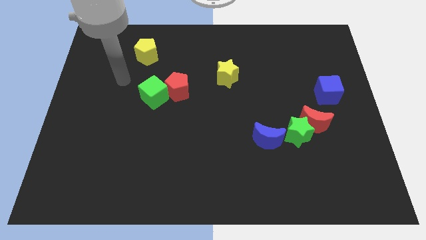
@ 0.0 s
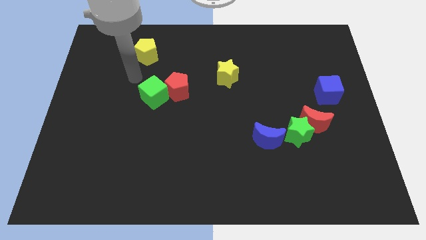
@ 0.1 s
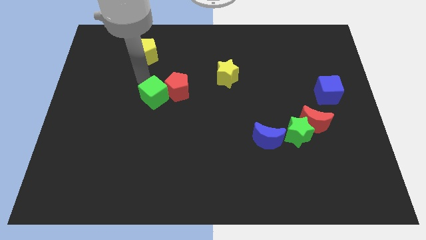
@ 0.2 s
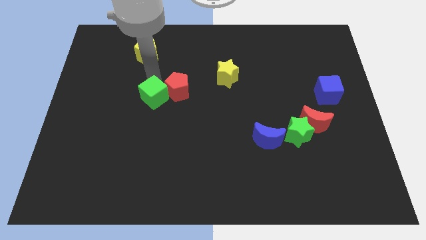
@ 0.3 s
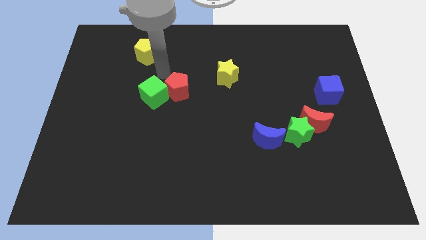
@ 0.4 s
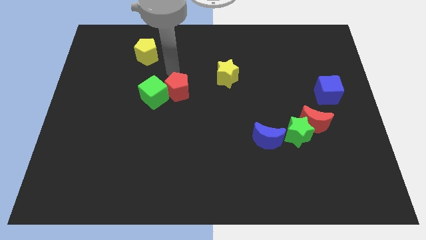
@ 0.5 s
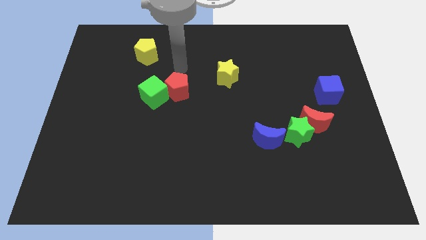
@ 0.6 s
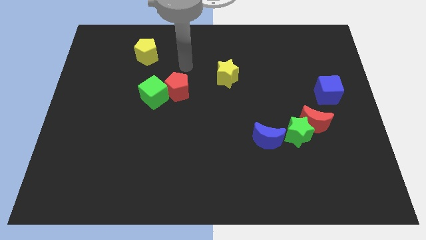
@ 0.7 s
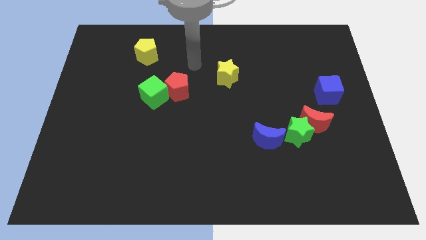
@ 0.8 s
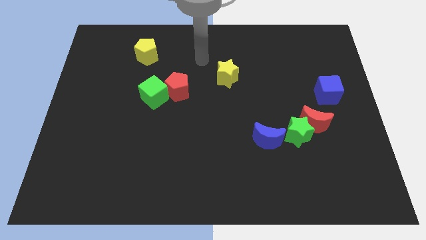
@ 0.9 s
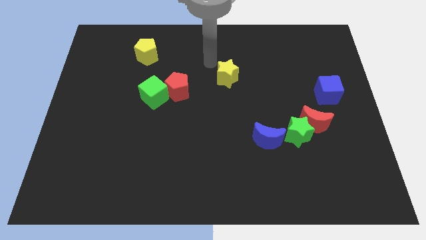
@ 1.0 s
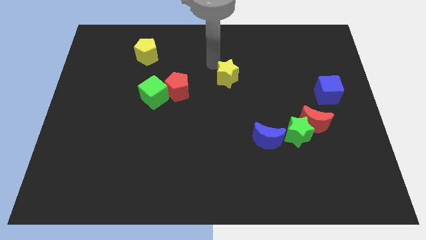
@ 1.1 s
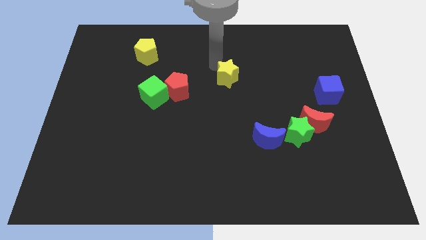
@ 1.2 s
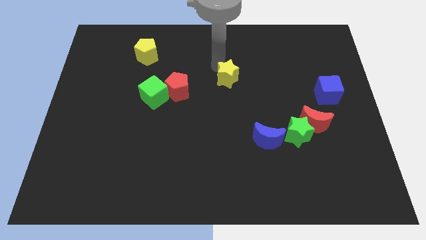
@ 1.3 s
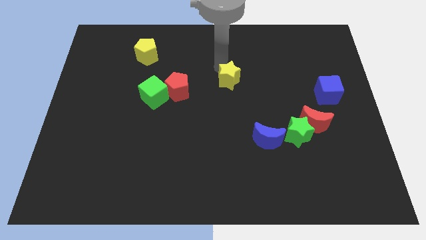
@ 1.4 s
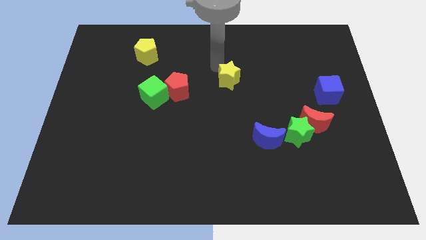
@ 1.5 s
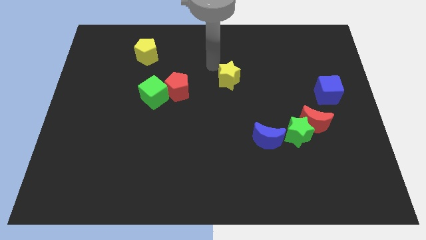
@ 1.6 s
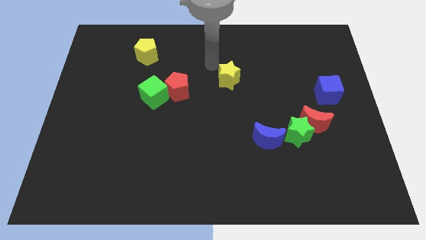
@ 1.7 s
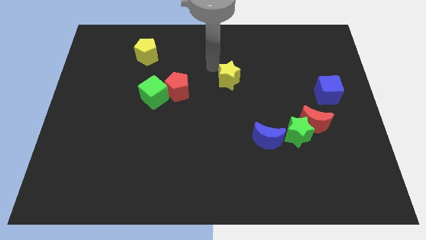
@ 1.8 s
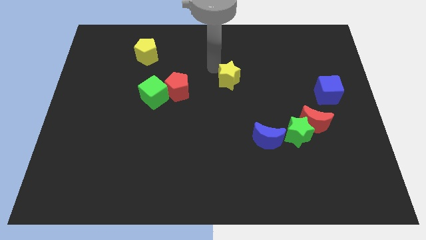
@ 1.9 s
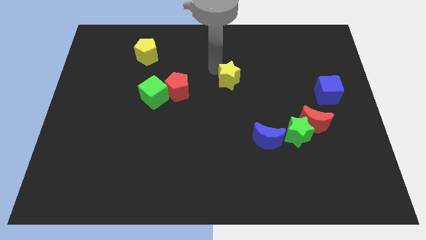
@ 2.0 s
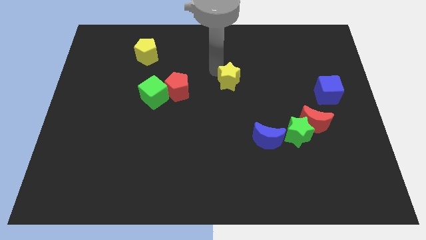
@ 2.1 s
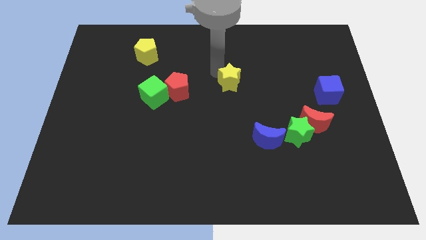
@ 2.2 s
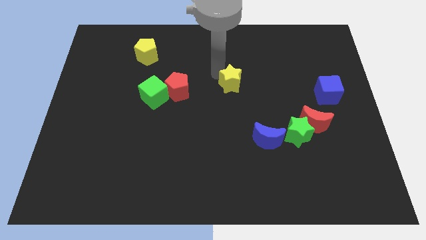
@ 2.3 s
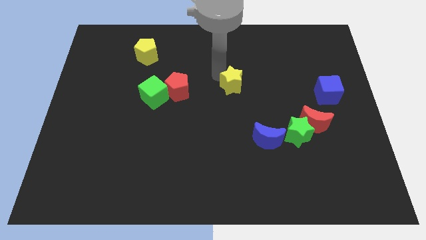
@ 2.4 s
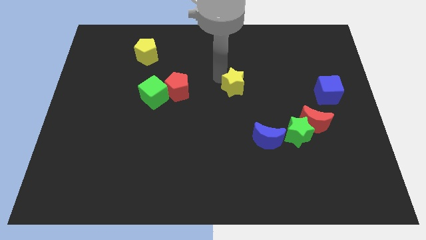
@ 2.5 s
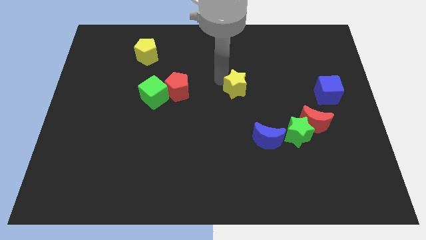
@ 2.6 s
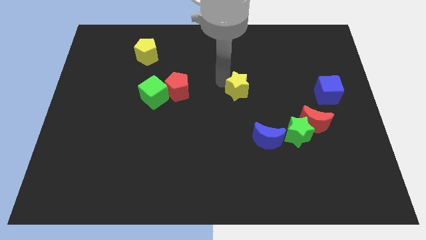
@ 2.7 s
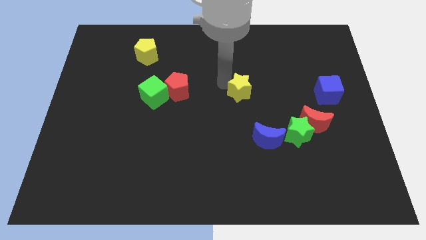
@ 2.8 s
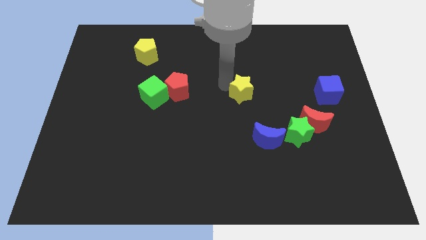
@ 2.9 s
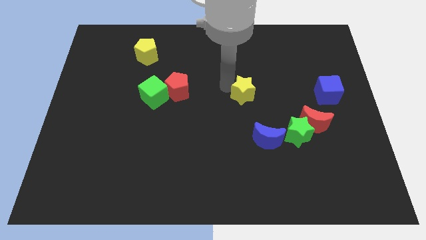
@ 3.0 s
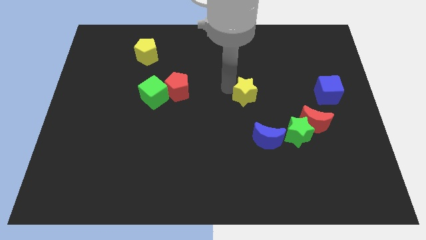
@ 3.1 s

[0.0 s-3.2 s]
move the yellow star a bit downwards and then right

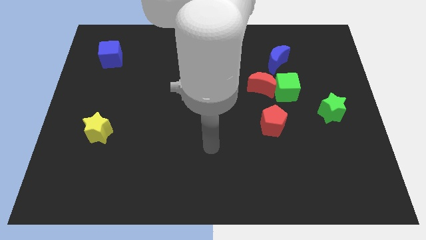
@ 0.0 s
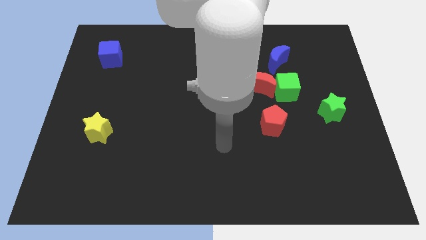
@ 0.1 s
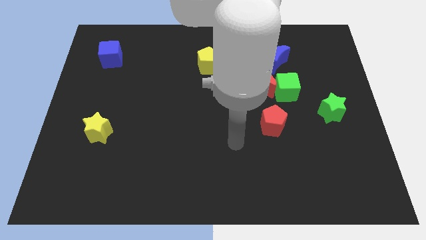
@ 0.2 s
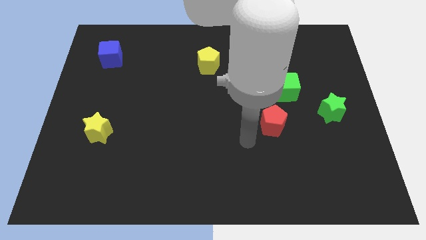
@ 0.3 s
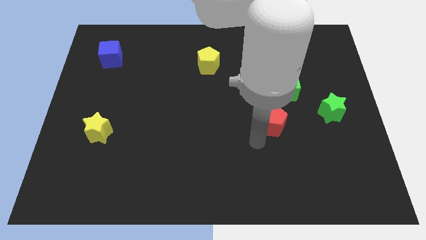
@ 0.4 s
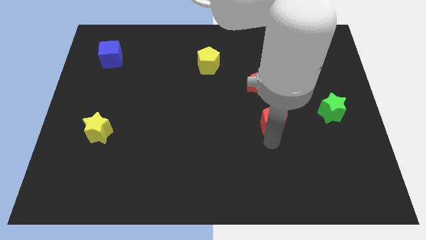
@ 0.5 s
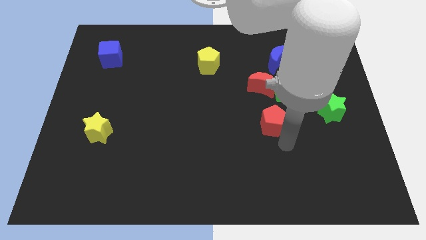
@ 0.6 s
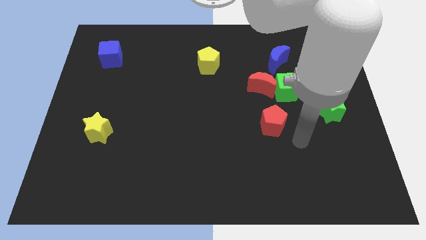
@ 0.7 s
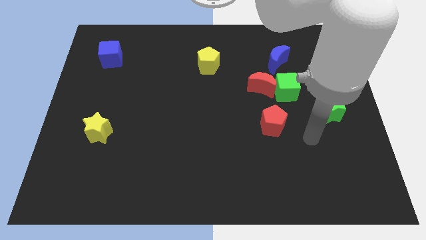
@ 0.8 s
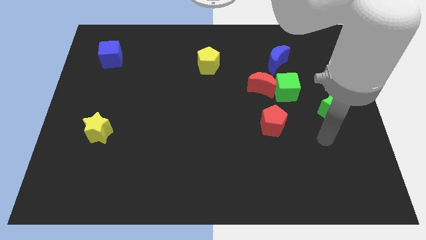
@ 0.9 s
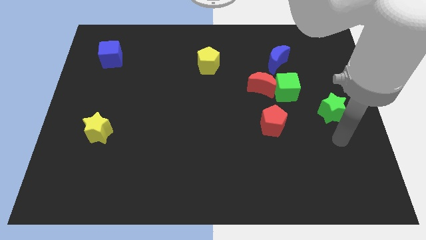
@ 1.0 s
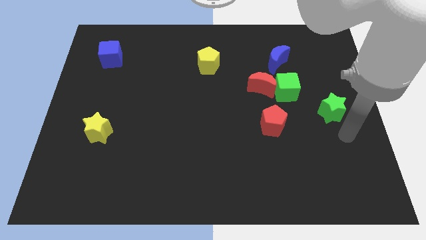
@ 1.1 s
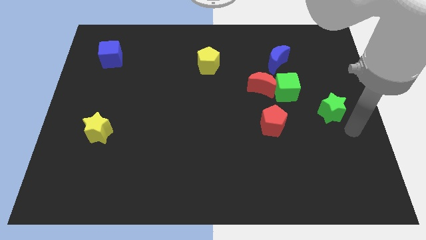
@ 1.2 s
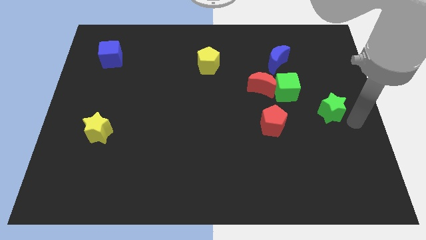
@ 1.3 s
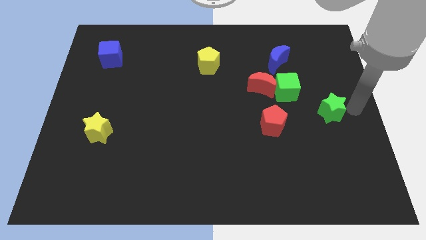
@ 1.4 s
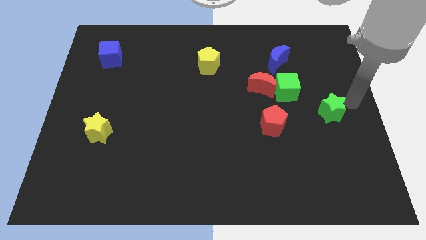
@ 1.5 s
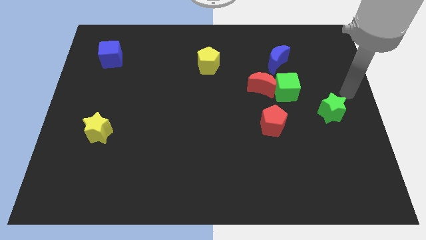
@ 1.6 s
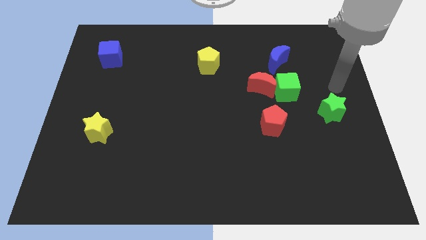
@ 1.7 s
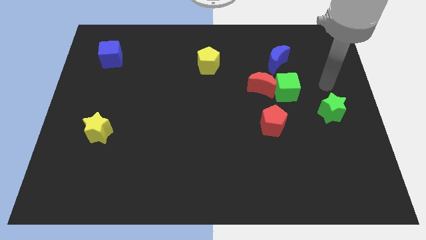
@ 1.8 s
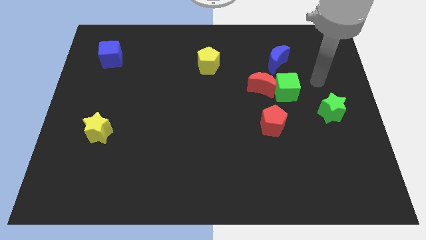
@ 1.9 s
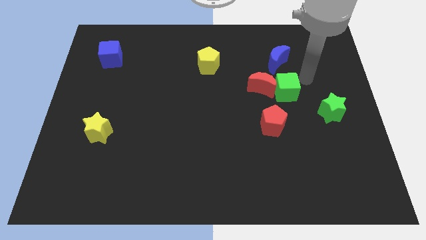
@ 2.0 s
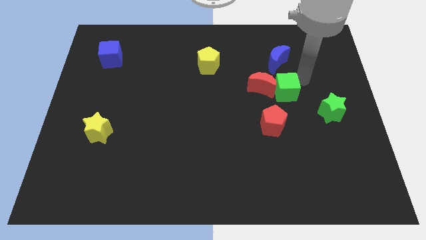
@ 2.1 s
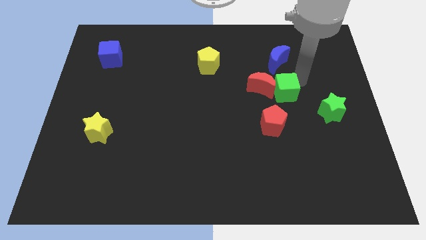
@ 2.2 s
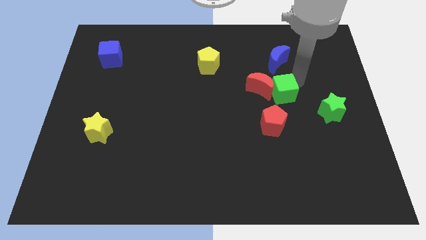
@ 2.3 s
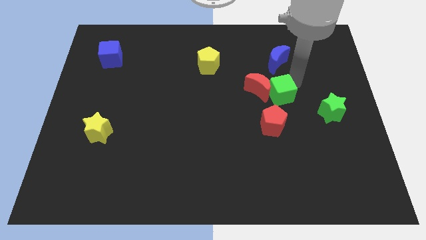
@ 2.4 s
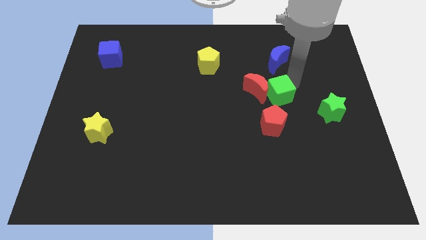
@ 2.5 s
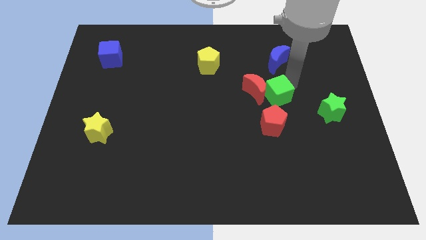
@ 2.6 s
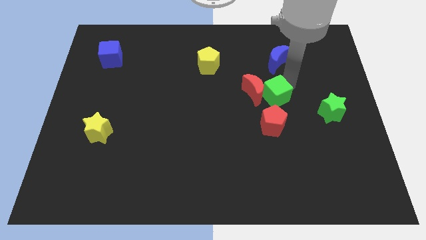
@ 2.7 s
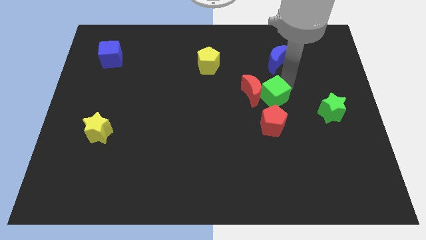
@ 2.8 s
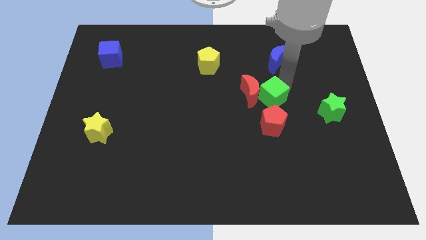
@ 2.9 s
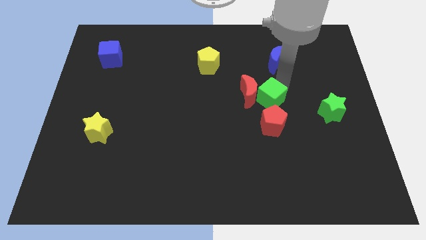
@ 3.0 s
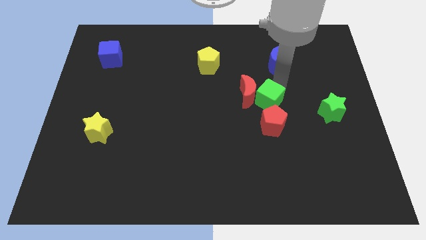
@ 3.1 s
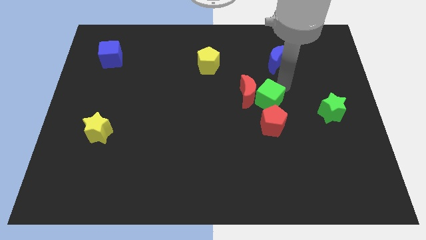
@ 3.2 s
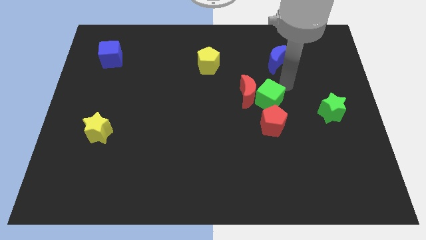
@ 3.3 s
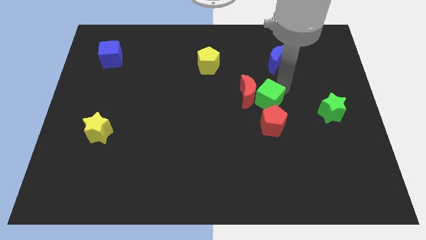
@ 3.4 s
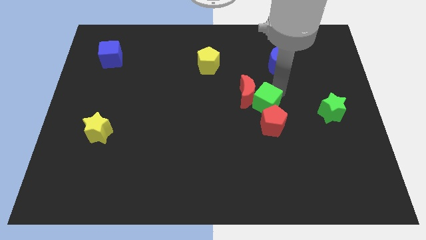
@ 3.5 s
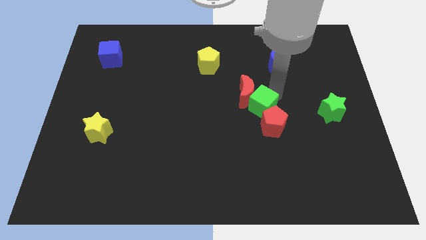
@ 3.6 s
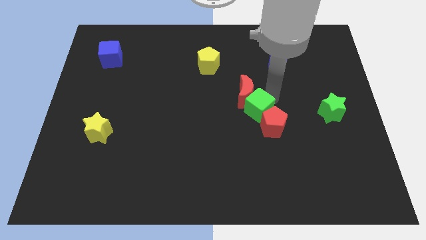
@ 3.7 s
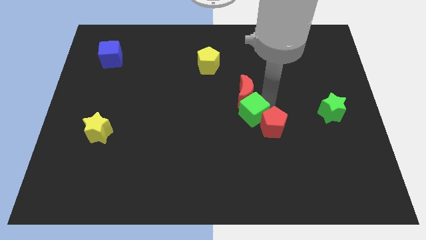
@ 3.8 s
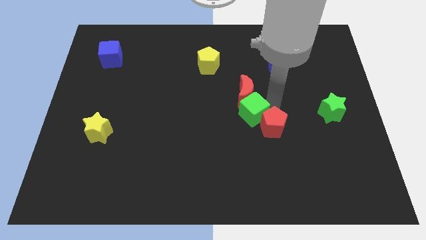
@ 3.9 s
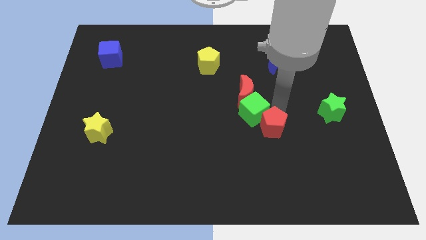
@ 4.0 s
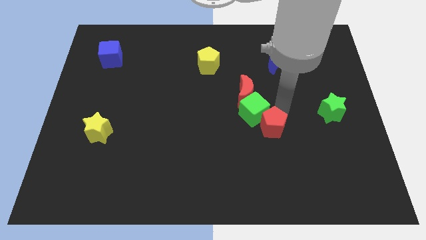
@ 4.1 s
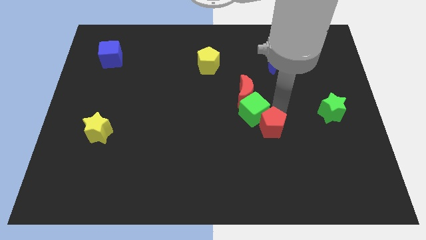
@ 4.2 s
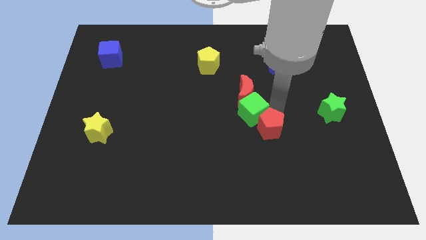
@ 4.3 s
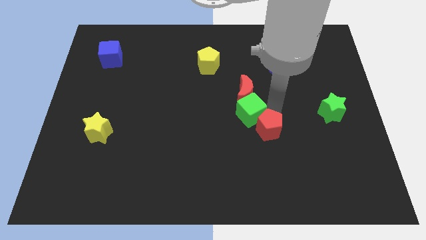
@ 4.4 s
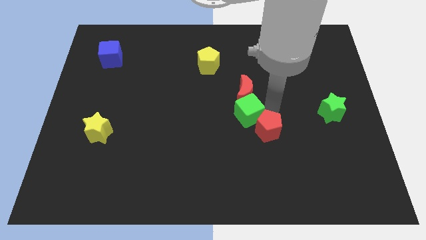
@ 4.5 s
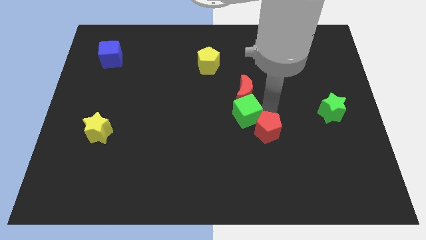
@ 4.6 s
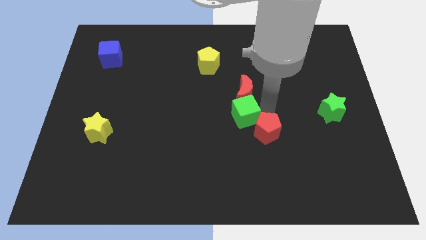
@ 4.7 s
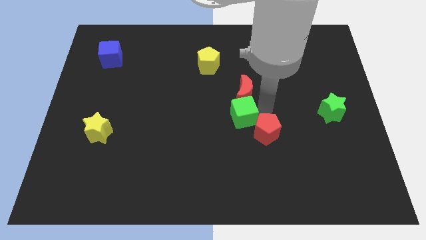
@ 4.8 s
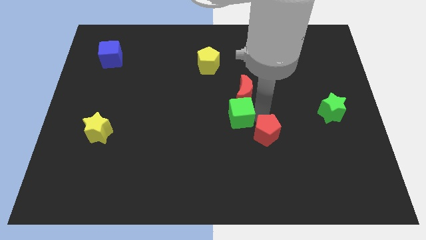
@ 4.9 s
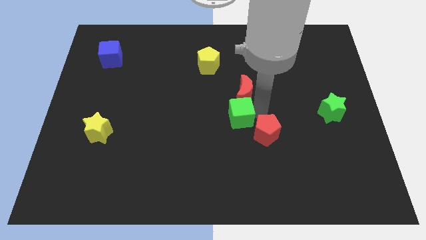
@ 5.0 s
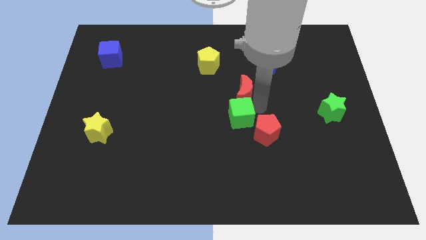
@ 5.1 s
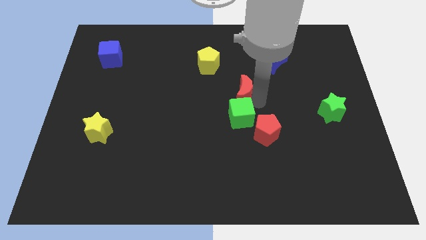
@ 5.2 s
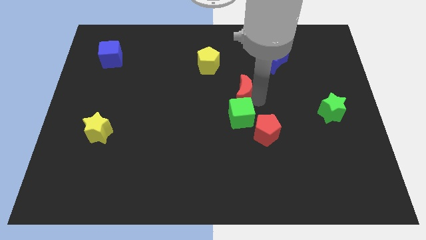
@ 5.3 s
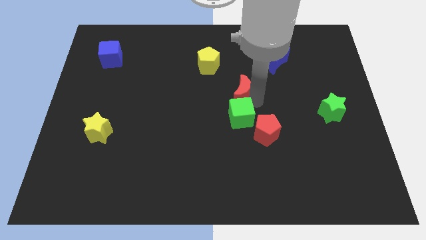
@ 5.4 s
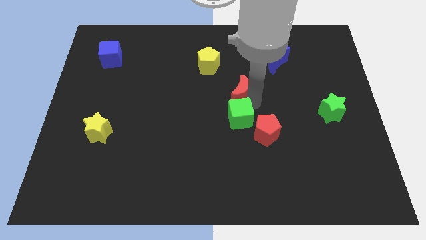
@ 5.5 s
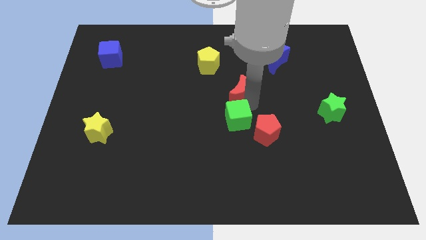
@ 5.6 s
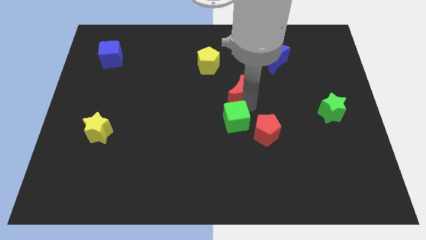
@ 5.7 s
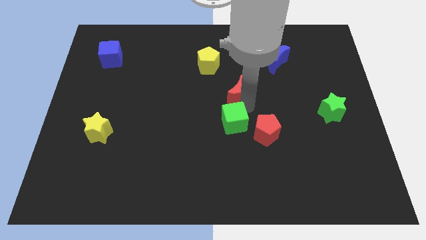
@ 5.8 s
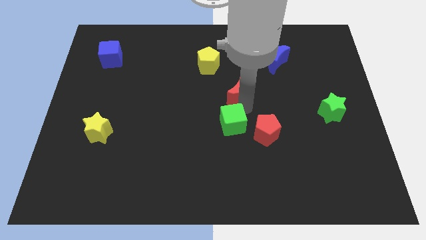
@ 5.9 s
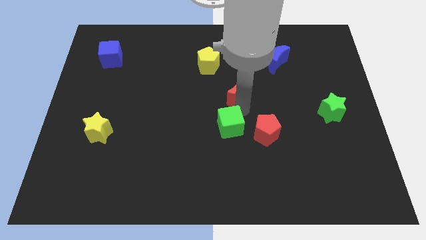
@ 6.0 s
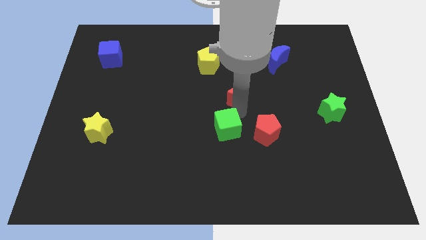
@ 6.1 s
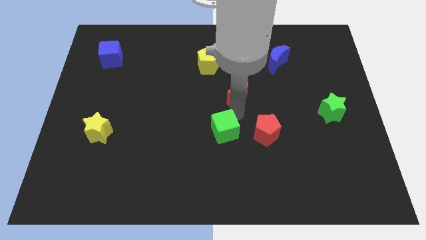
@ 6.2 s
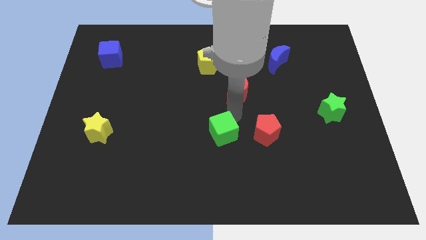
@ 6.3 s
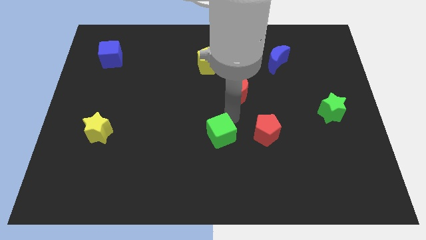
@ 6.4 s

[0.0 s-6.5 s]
move the green cube down and to the left
